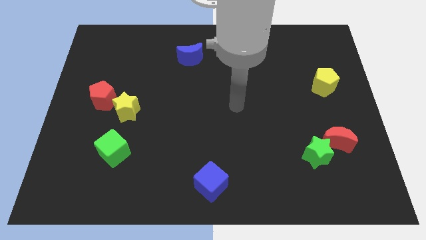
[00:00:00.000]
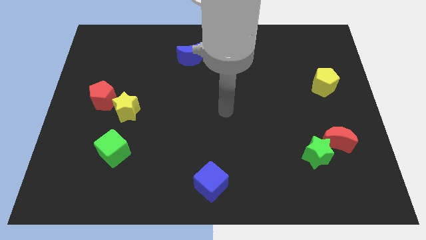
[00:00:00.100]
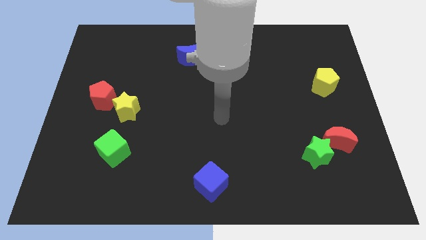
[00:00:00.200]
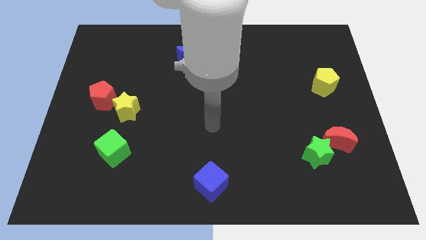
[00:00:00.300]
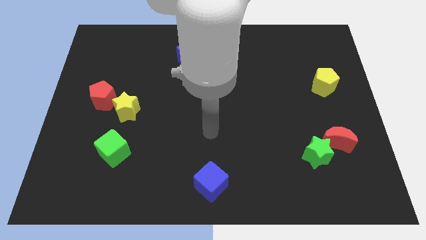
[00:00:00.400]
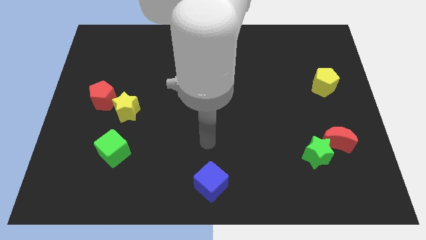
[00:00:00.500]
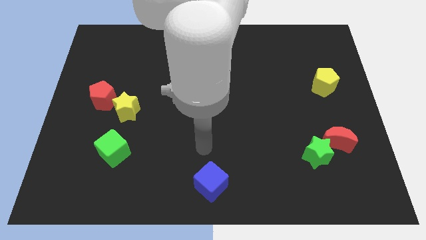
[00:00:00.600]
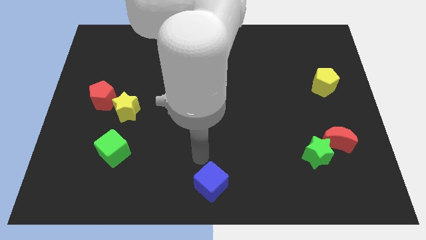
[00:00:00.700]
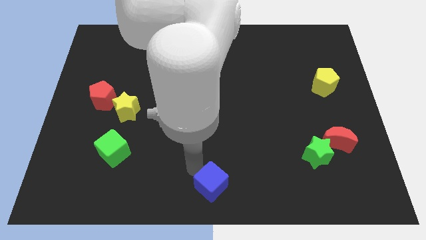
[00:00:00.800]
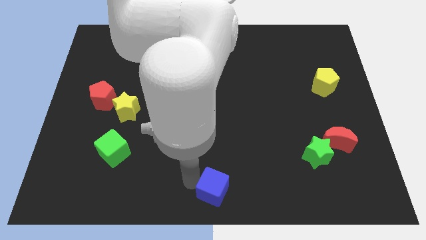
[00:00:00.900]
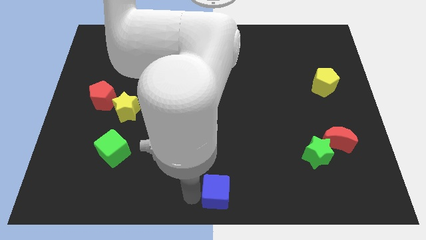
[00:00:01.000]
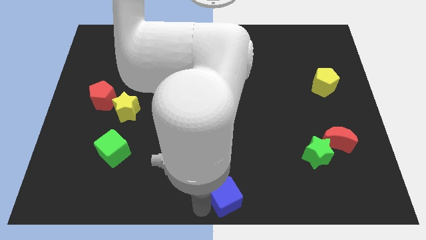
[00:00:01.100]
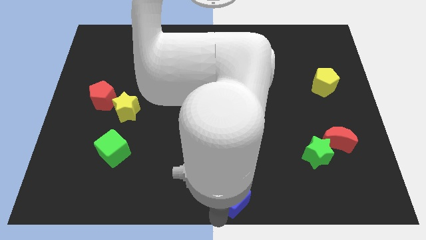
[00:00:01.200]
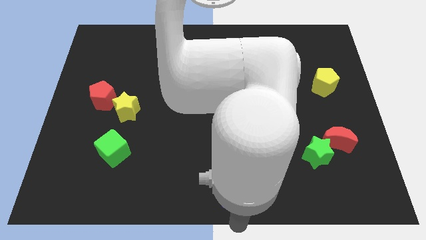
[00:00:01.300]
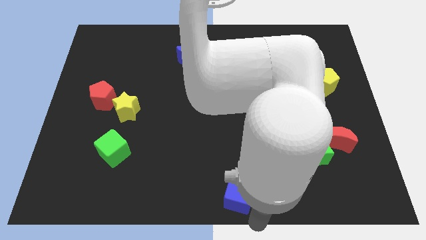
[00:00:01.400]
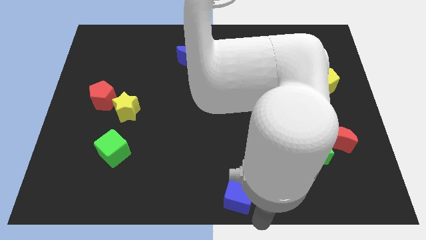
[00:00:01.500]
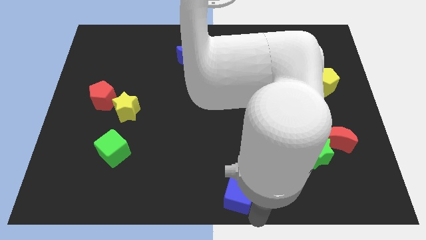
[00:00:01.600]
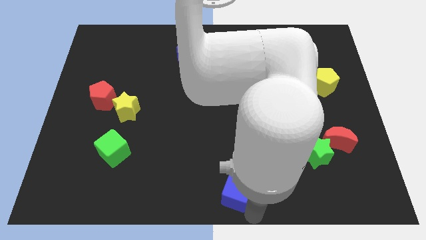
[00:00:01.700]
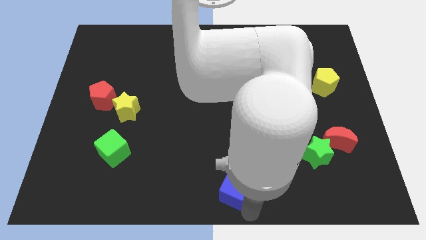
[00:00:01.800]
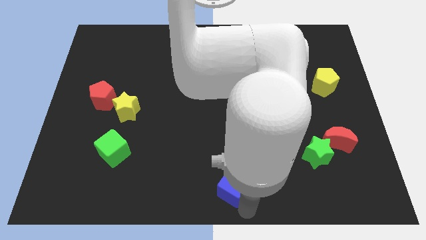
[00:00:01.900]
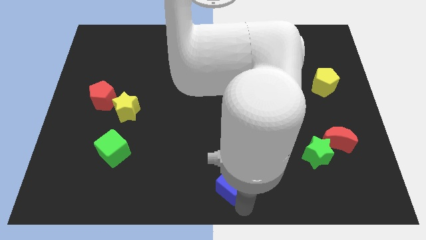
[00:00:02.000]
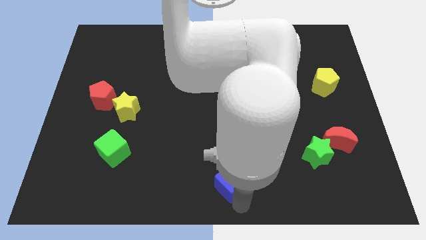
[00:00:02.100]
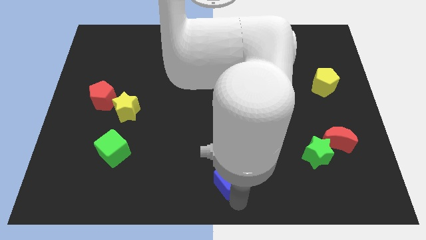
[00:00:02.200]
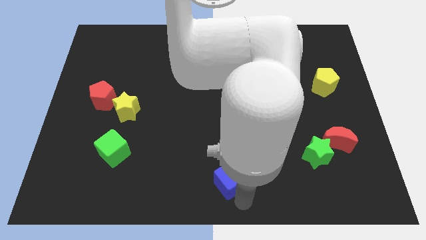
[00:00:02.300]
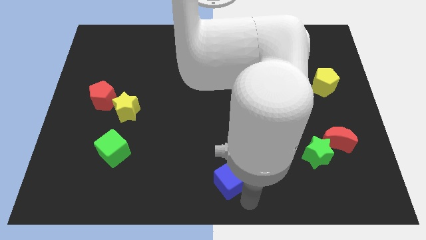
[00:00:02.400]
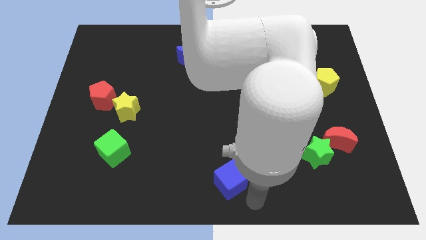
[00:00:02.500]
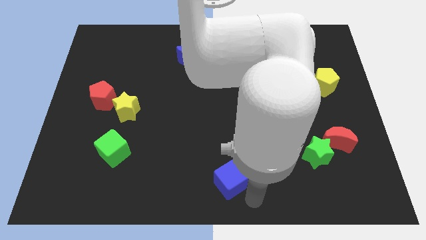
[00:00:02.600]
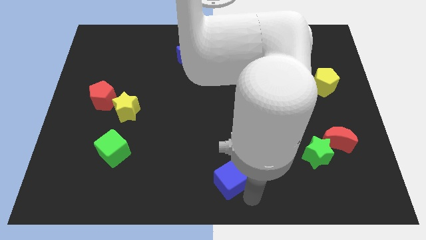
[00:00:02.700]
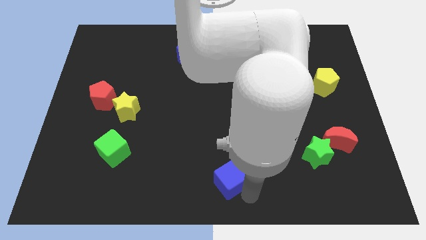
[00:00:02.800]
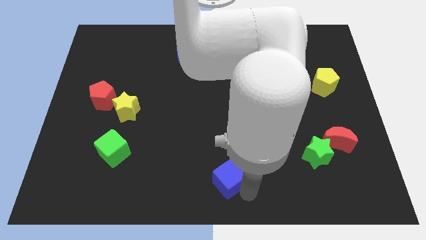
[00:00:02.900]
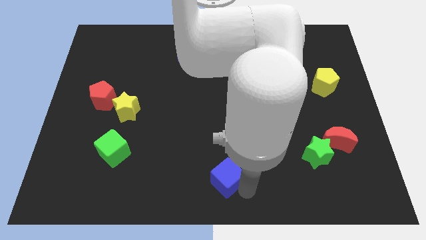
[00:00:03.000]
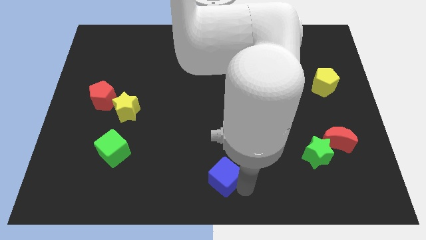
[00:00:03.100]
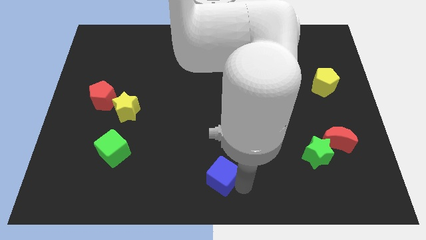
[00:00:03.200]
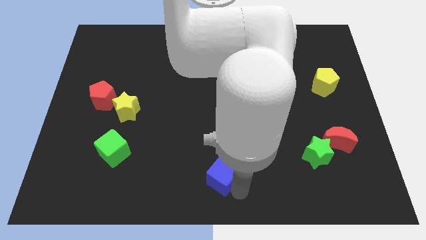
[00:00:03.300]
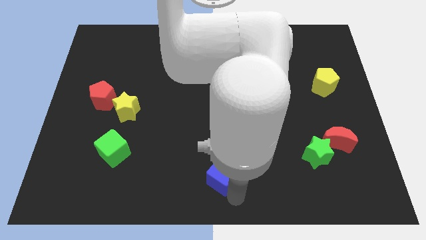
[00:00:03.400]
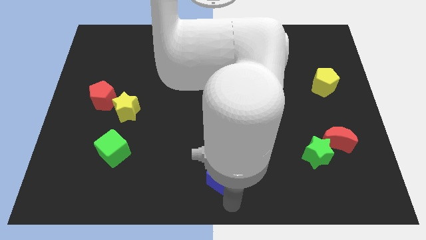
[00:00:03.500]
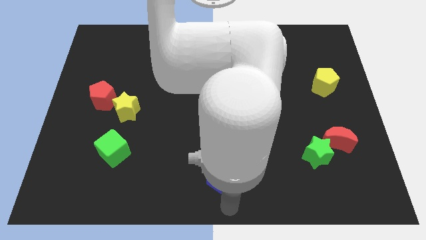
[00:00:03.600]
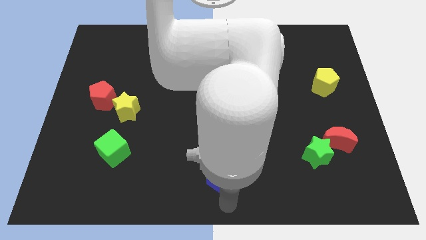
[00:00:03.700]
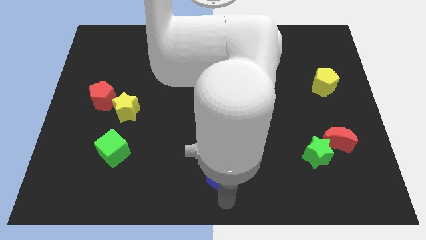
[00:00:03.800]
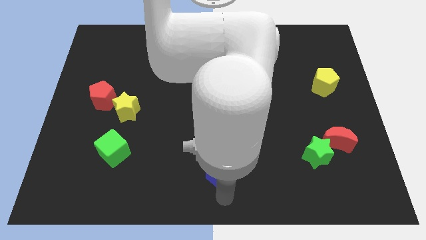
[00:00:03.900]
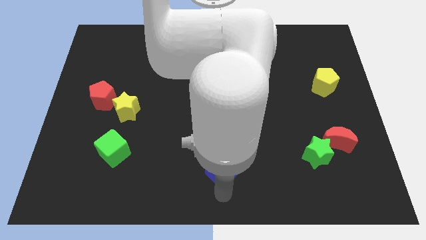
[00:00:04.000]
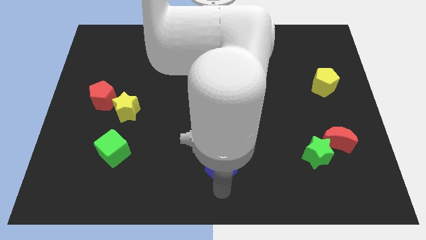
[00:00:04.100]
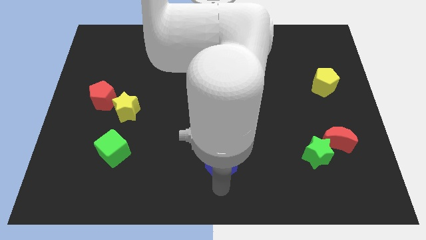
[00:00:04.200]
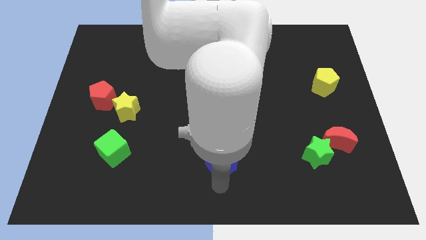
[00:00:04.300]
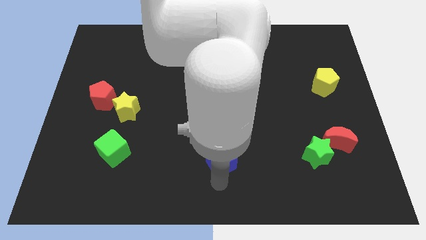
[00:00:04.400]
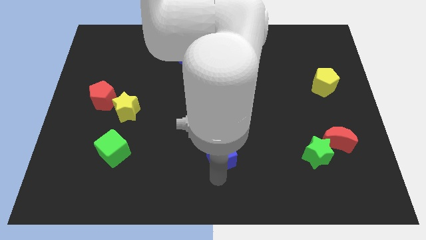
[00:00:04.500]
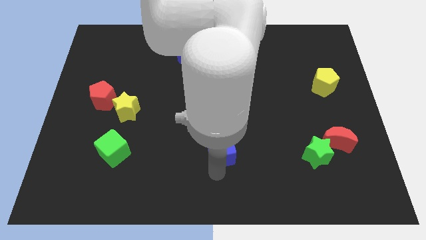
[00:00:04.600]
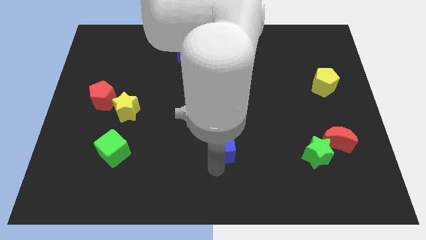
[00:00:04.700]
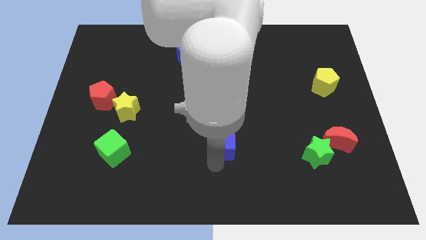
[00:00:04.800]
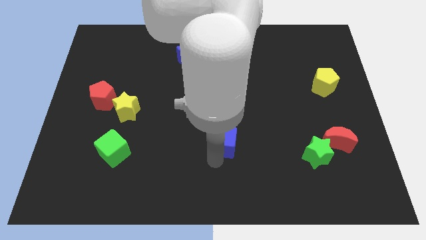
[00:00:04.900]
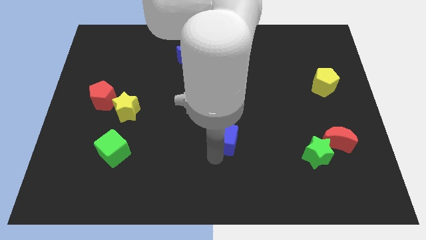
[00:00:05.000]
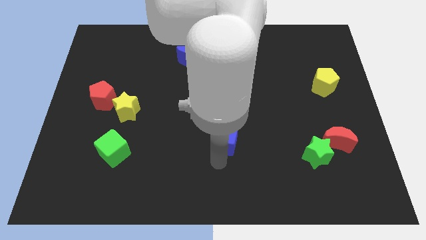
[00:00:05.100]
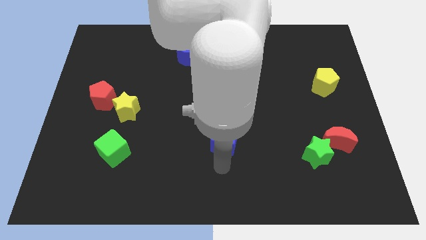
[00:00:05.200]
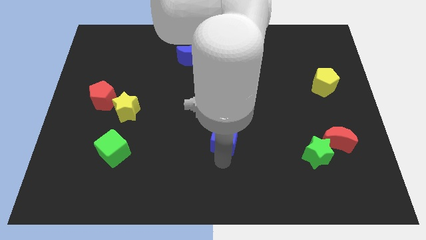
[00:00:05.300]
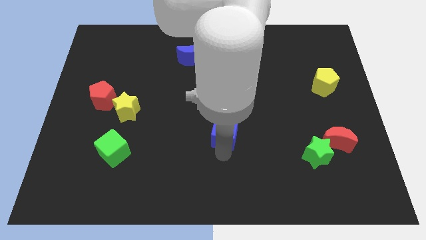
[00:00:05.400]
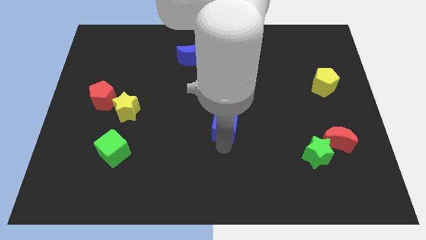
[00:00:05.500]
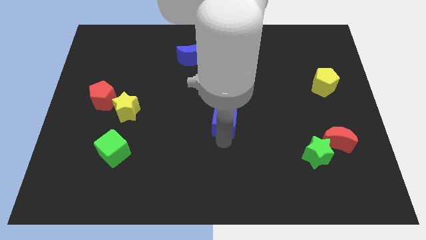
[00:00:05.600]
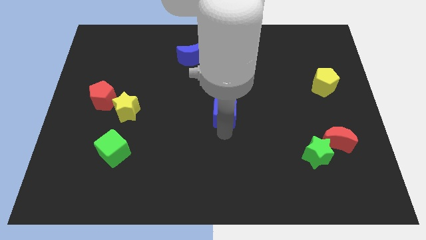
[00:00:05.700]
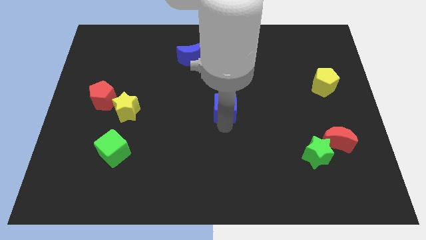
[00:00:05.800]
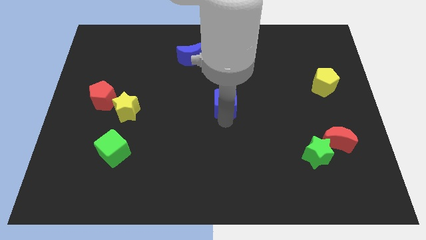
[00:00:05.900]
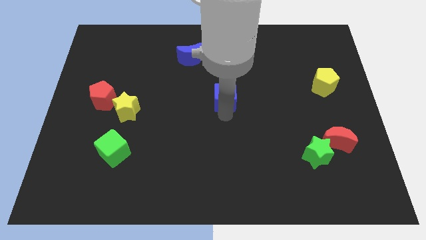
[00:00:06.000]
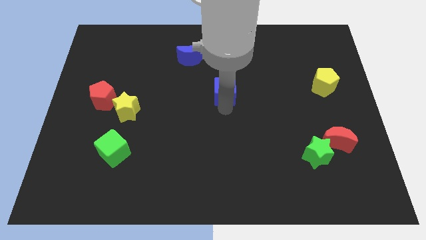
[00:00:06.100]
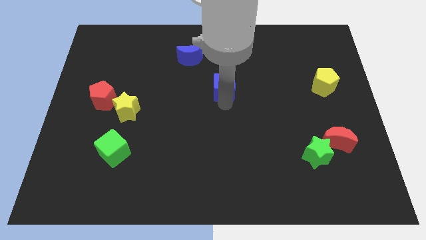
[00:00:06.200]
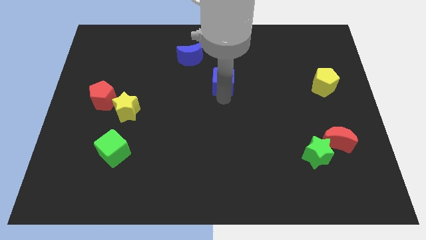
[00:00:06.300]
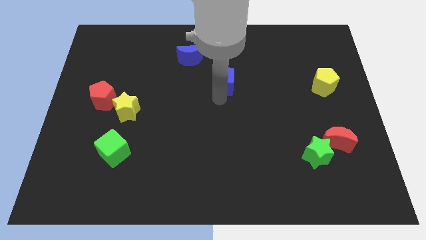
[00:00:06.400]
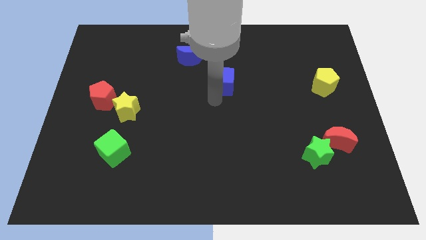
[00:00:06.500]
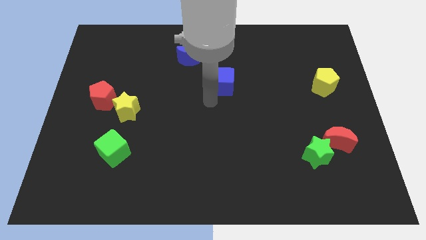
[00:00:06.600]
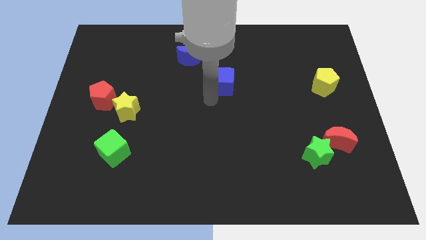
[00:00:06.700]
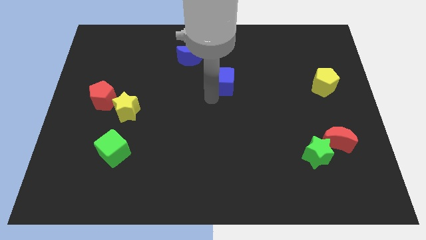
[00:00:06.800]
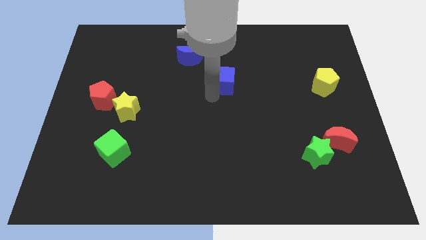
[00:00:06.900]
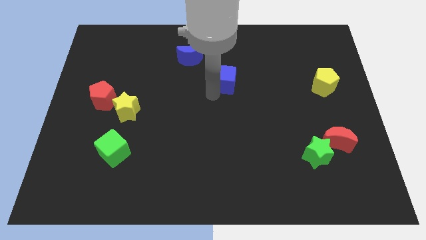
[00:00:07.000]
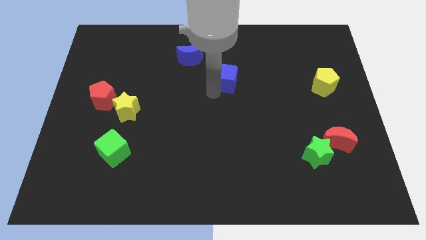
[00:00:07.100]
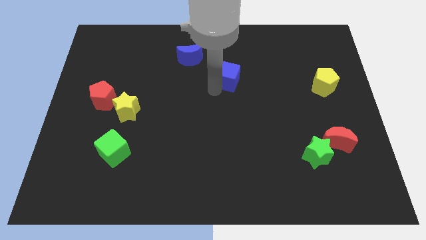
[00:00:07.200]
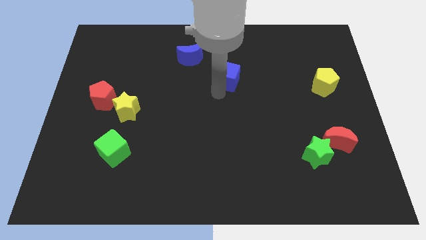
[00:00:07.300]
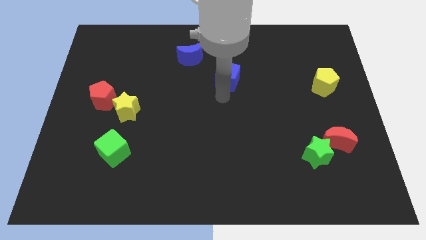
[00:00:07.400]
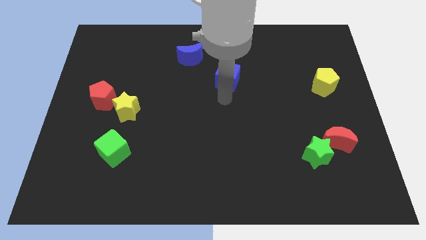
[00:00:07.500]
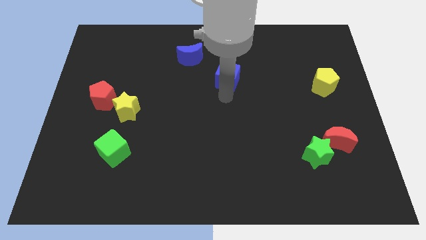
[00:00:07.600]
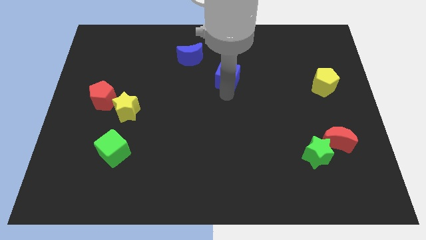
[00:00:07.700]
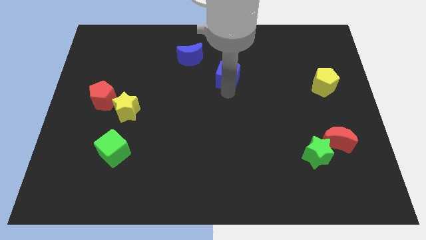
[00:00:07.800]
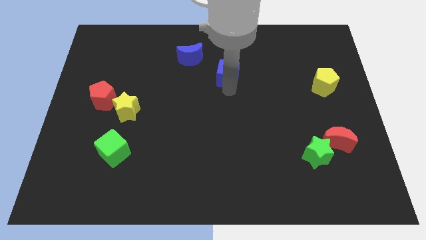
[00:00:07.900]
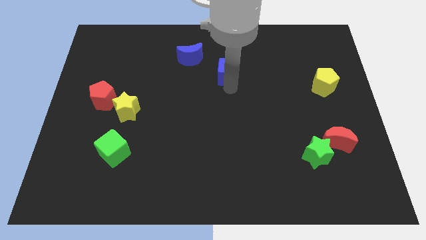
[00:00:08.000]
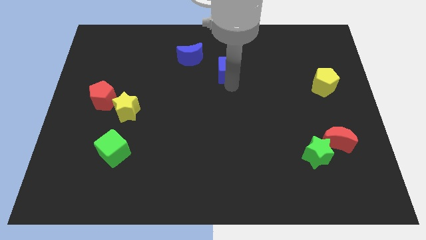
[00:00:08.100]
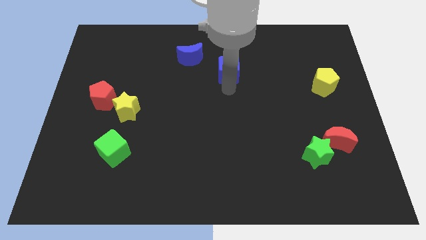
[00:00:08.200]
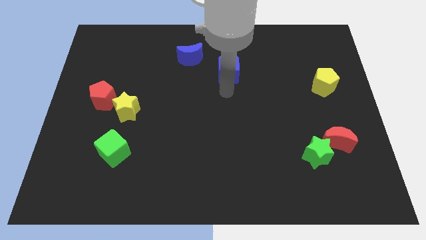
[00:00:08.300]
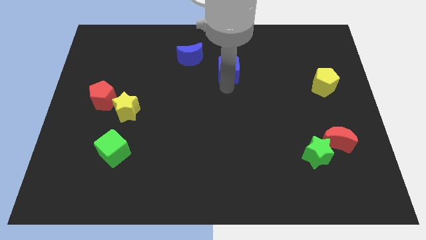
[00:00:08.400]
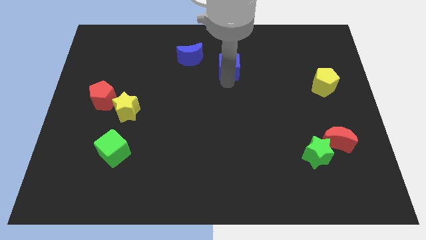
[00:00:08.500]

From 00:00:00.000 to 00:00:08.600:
slide the blue cube to the right side of the blue moon
